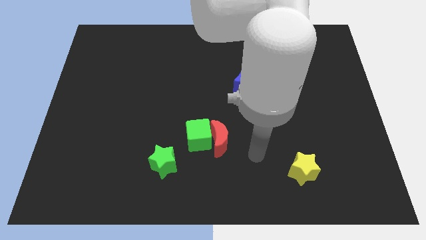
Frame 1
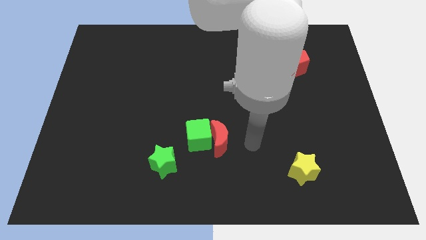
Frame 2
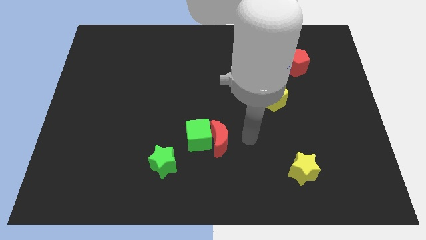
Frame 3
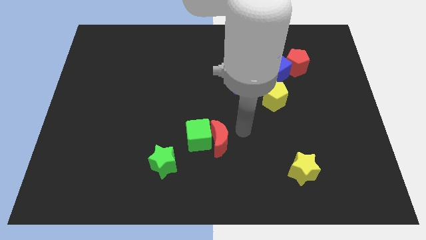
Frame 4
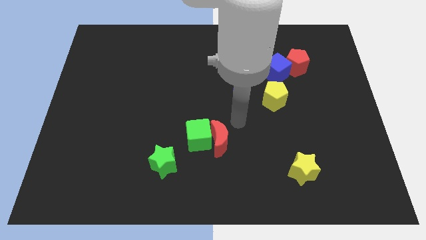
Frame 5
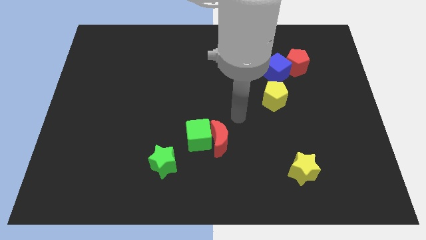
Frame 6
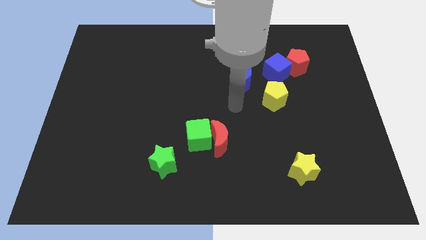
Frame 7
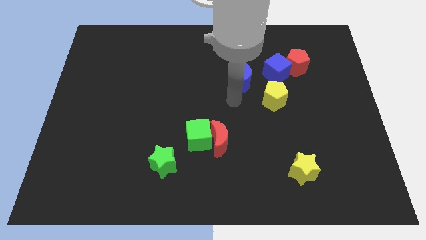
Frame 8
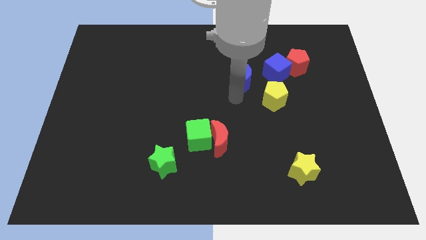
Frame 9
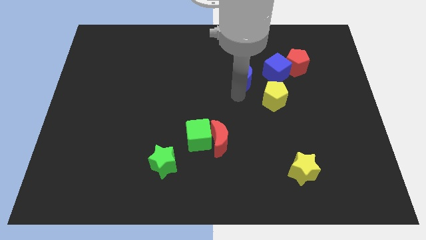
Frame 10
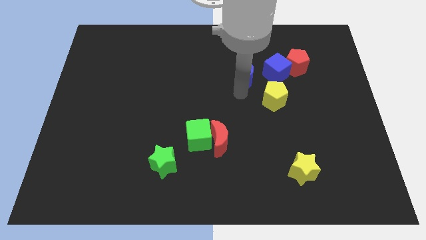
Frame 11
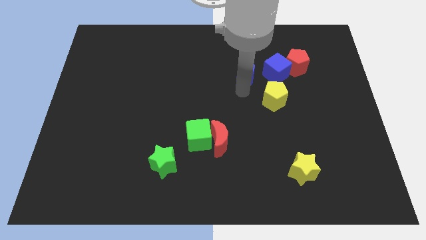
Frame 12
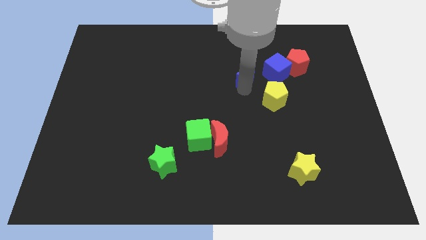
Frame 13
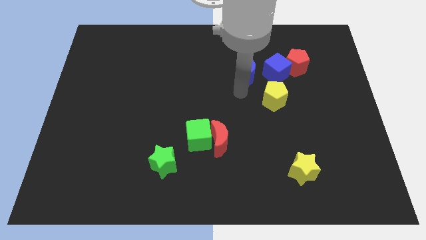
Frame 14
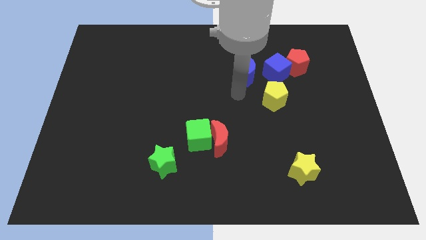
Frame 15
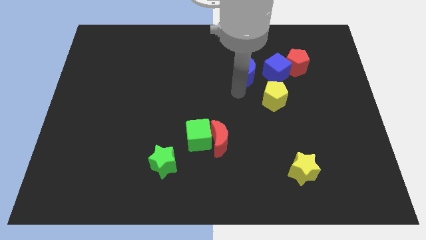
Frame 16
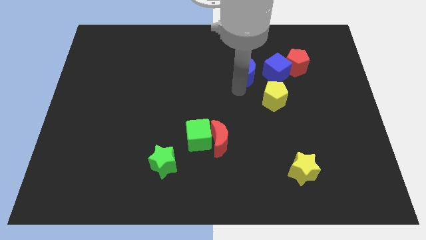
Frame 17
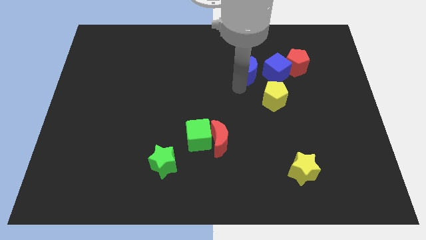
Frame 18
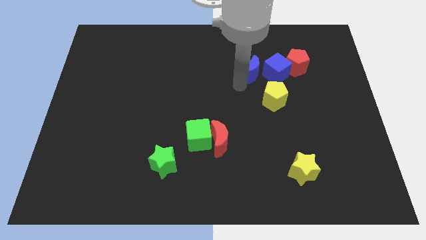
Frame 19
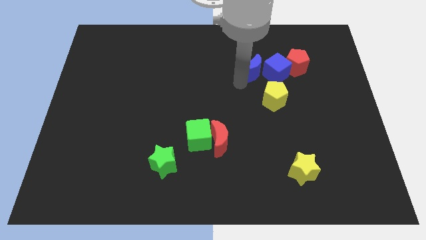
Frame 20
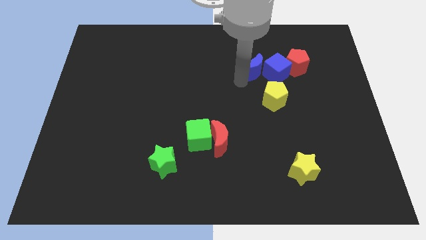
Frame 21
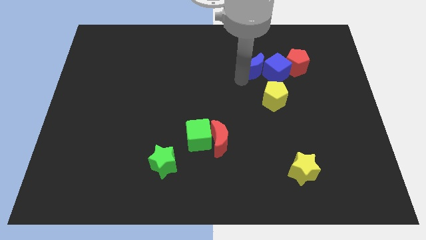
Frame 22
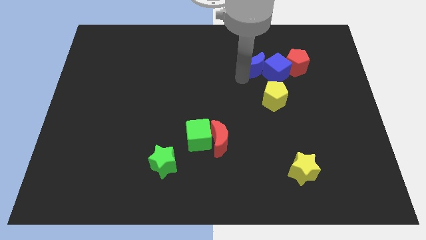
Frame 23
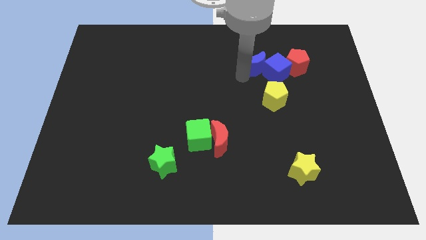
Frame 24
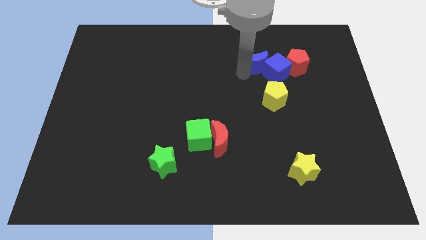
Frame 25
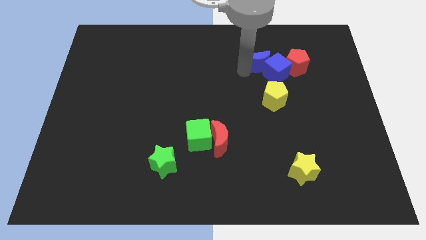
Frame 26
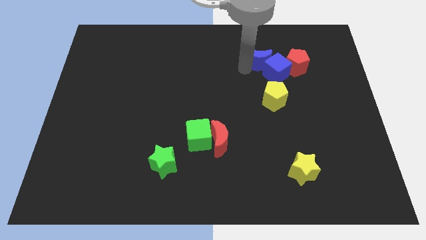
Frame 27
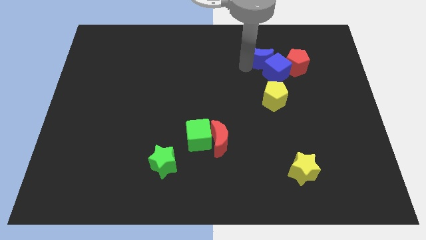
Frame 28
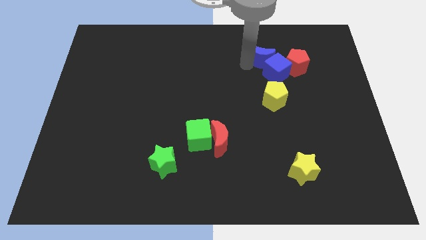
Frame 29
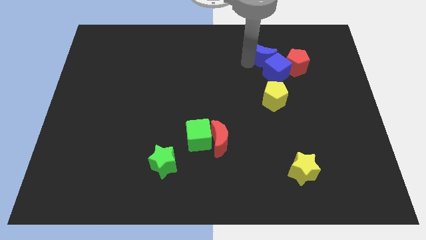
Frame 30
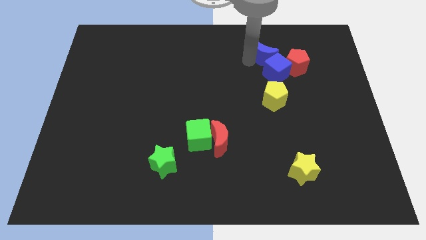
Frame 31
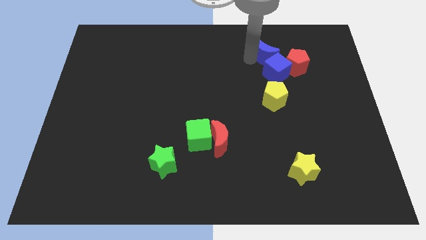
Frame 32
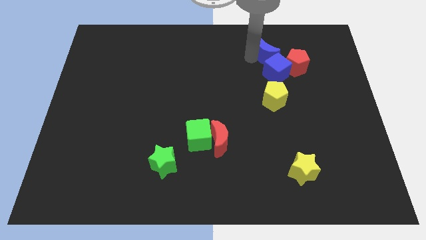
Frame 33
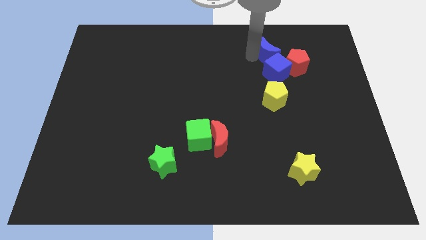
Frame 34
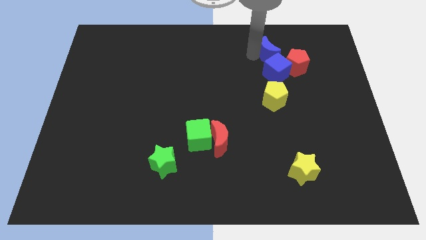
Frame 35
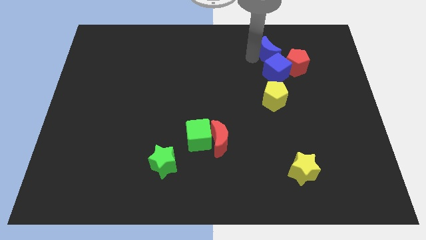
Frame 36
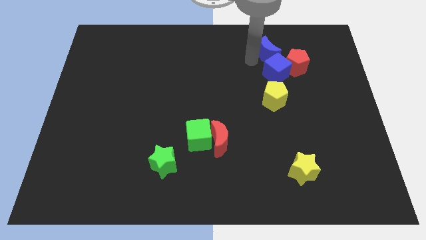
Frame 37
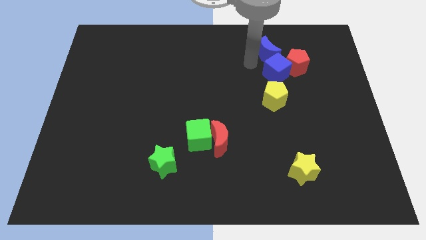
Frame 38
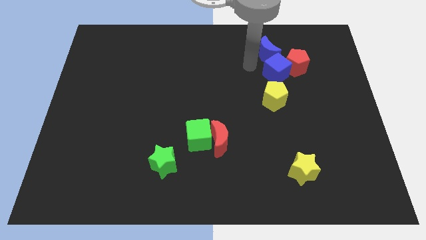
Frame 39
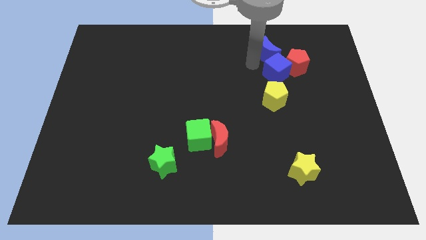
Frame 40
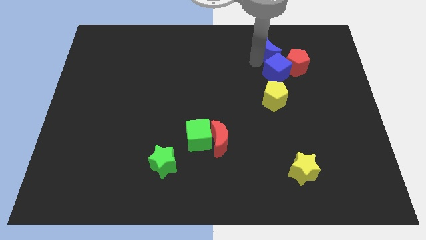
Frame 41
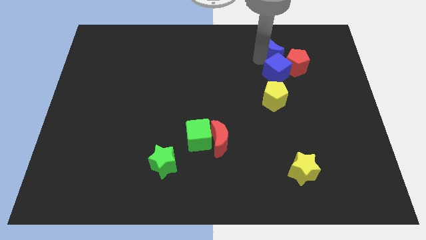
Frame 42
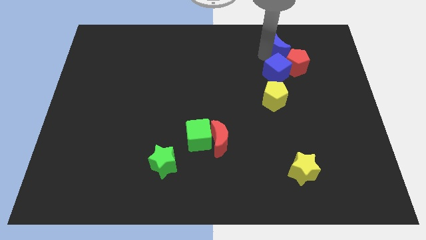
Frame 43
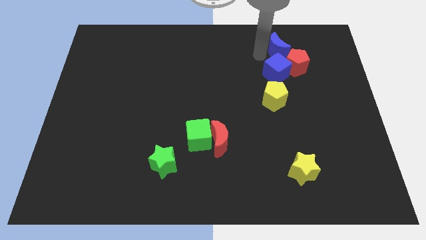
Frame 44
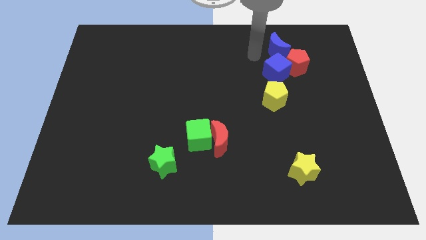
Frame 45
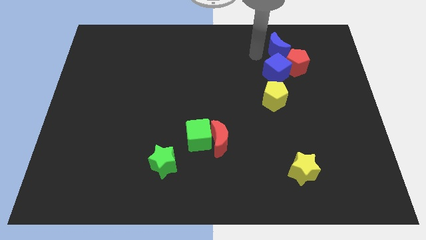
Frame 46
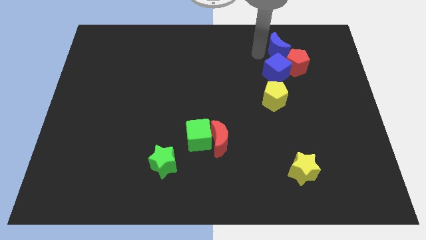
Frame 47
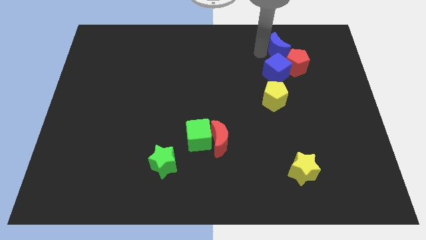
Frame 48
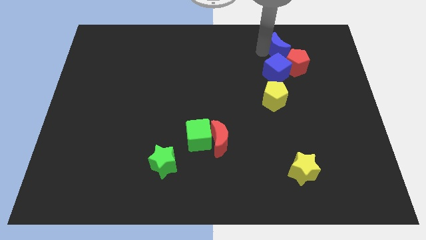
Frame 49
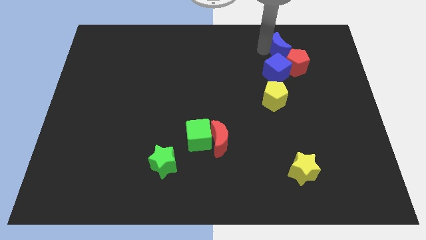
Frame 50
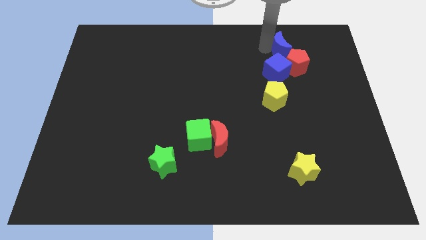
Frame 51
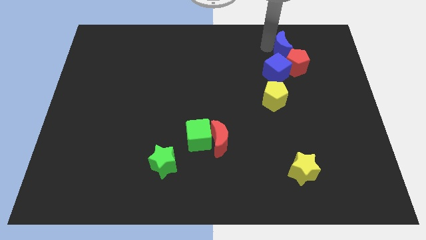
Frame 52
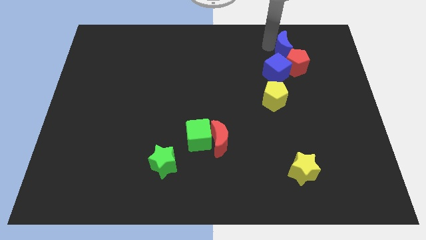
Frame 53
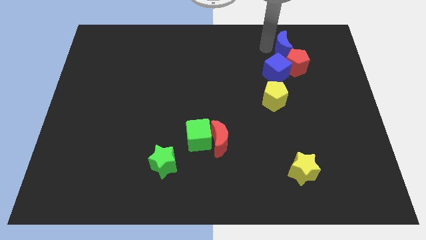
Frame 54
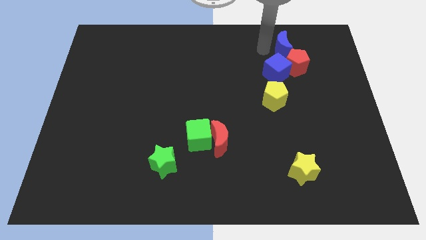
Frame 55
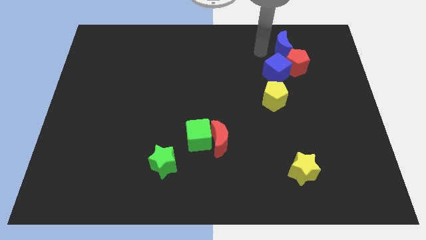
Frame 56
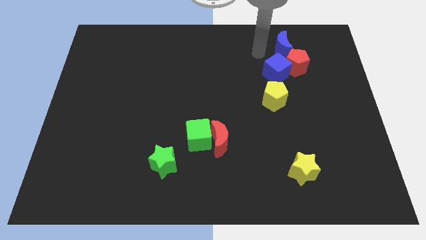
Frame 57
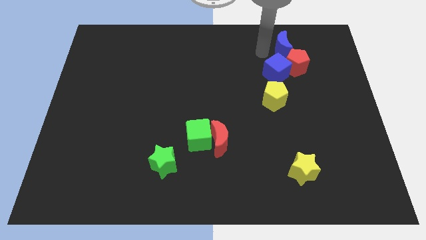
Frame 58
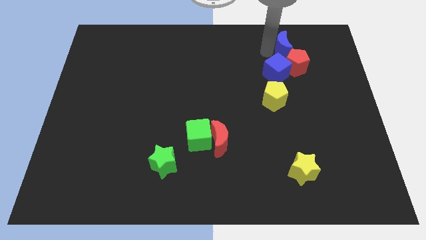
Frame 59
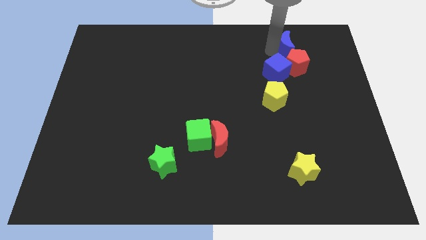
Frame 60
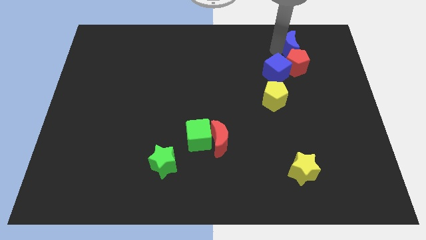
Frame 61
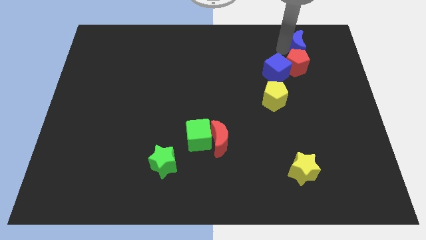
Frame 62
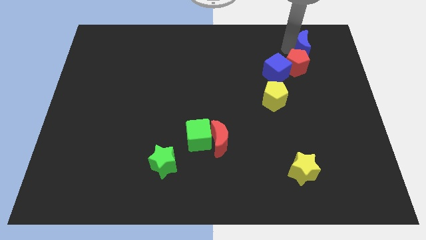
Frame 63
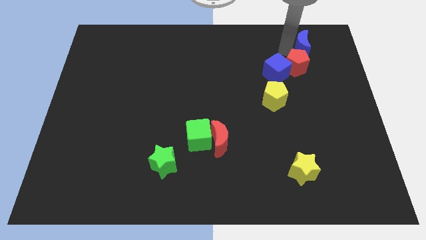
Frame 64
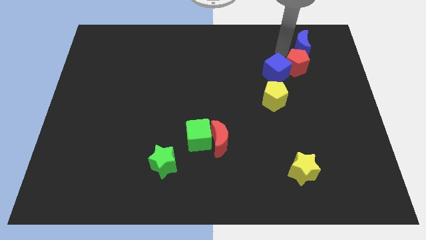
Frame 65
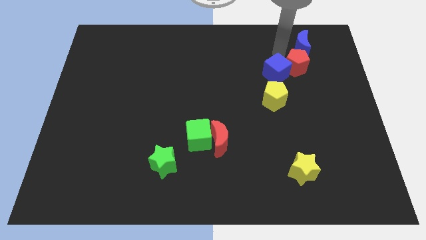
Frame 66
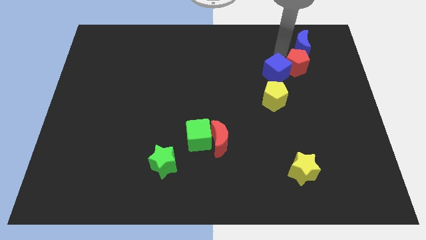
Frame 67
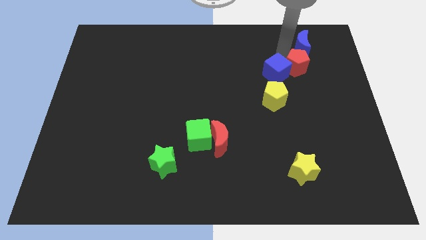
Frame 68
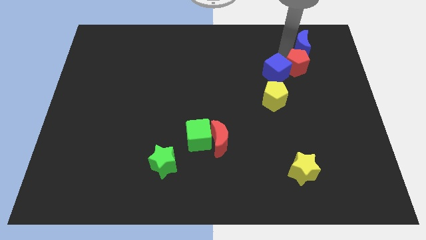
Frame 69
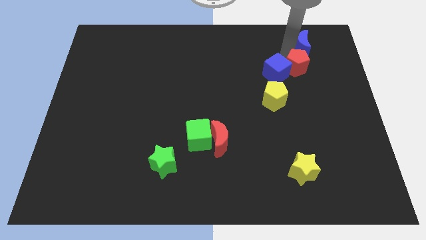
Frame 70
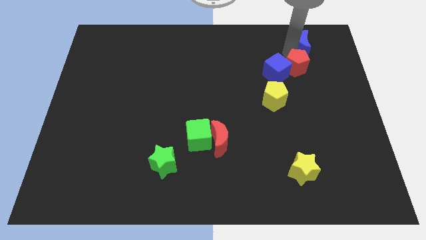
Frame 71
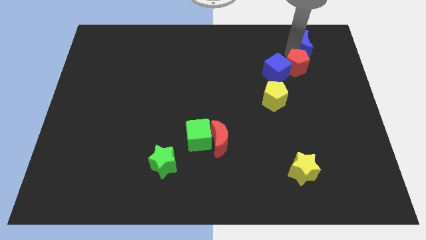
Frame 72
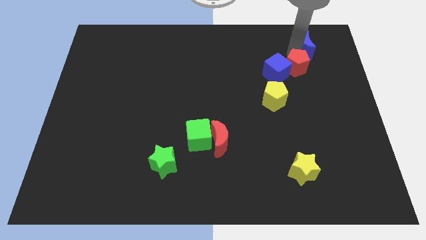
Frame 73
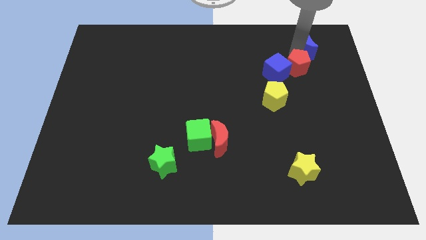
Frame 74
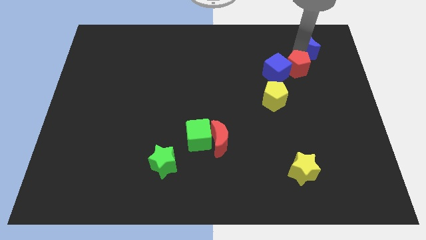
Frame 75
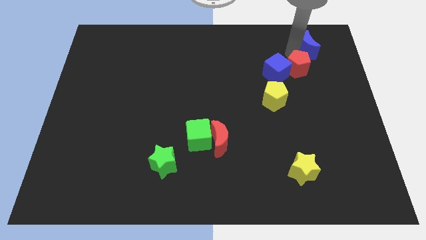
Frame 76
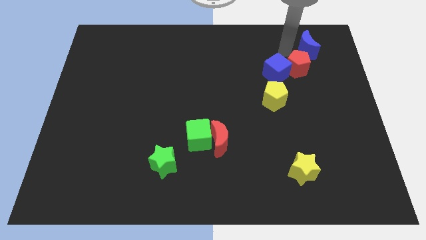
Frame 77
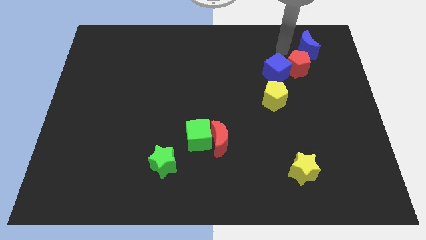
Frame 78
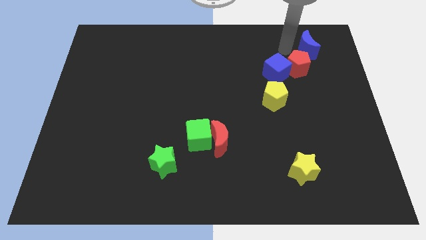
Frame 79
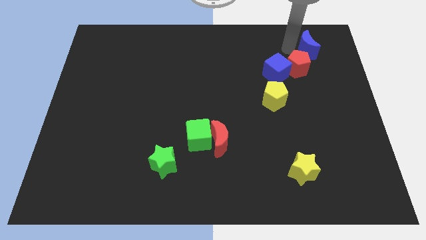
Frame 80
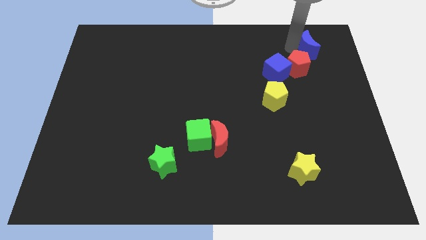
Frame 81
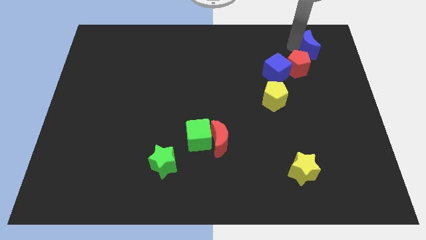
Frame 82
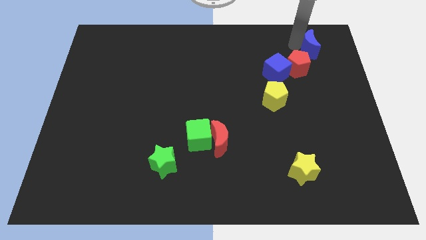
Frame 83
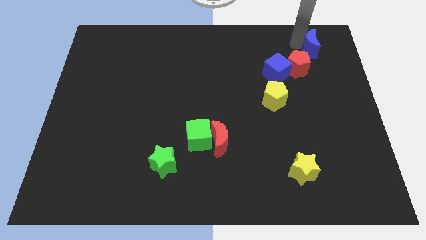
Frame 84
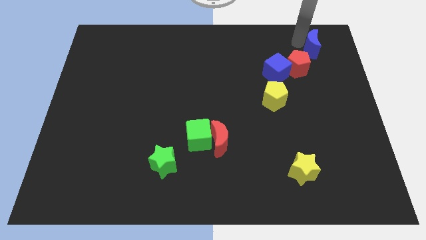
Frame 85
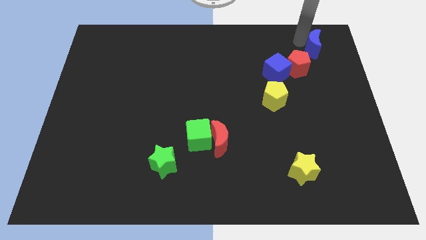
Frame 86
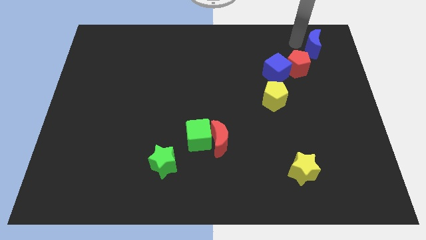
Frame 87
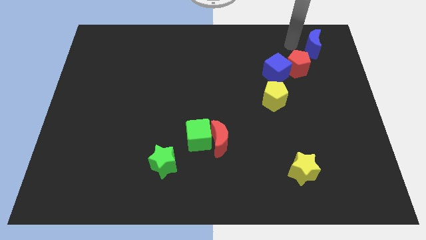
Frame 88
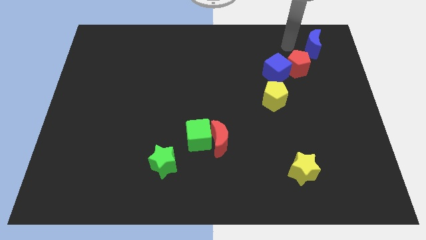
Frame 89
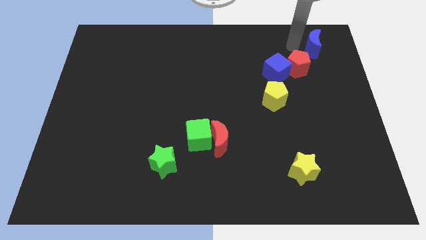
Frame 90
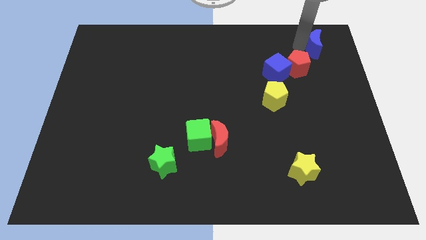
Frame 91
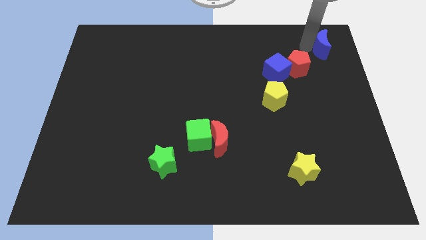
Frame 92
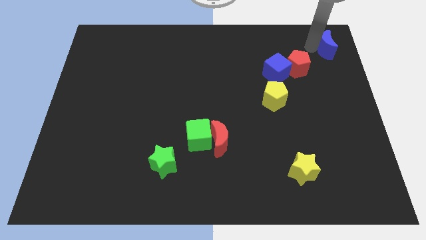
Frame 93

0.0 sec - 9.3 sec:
put the blue moon to the top right of the board
